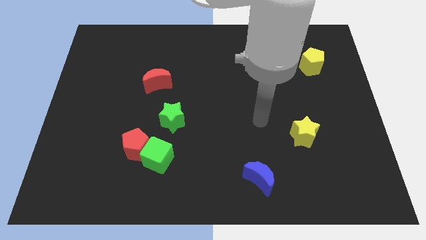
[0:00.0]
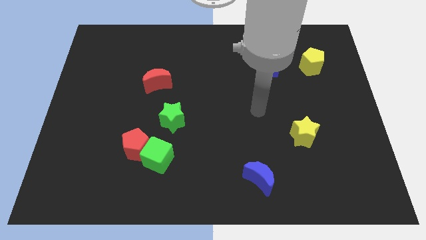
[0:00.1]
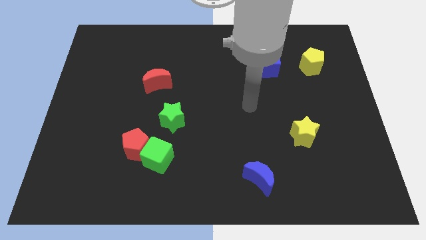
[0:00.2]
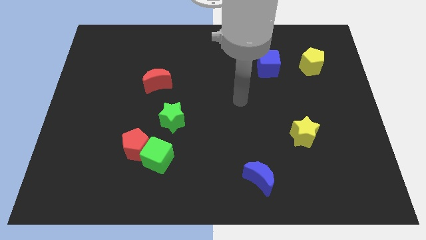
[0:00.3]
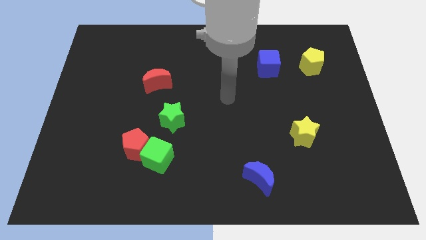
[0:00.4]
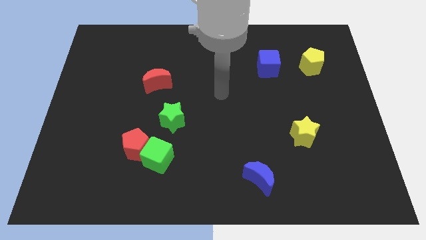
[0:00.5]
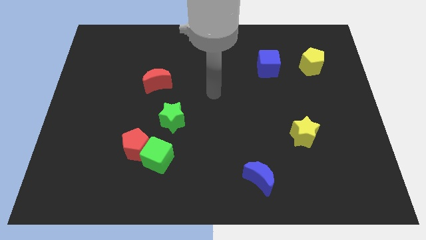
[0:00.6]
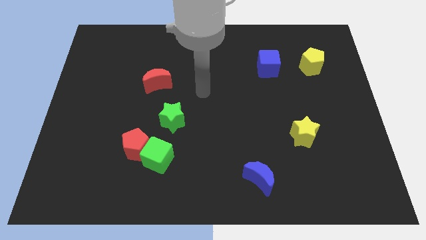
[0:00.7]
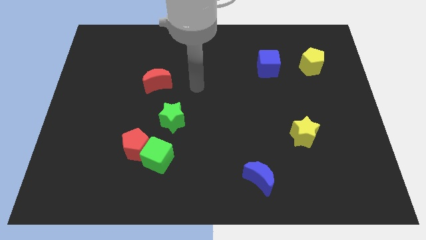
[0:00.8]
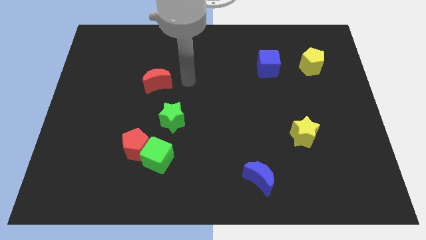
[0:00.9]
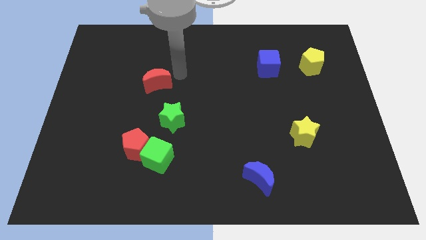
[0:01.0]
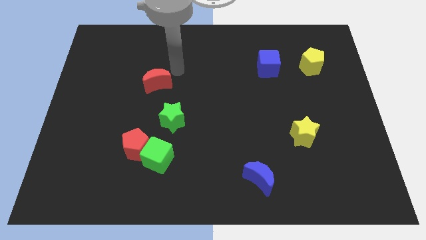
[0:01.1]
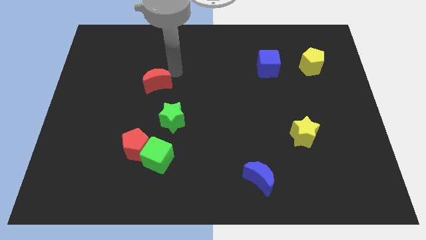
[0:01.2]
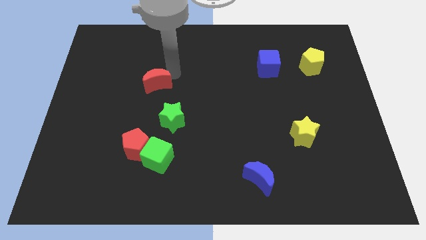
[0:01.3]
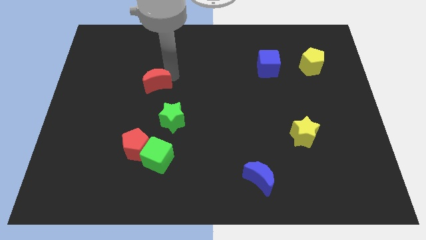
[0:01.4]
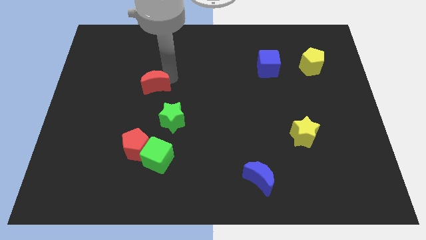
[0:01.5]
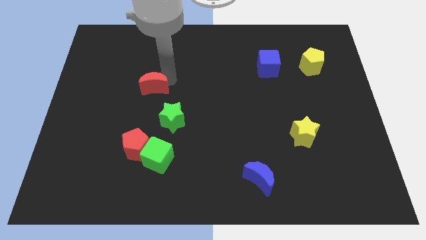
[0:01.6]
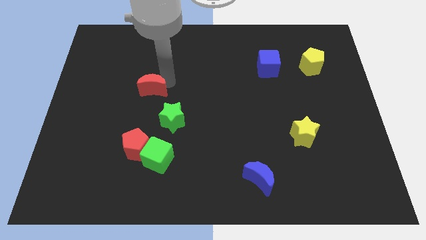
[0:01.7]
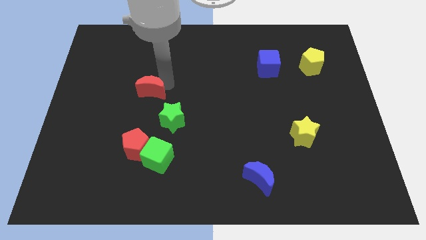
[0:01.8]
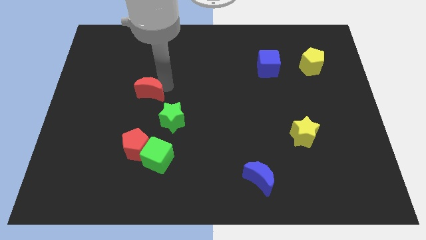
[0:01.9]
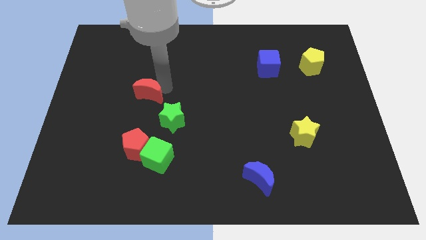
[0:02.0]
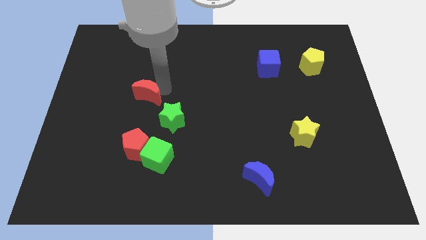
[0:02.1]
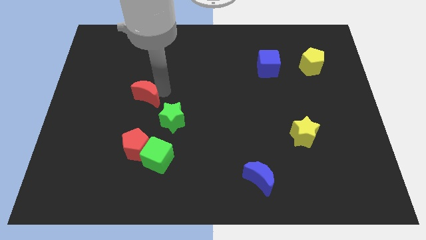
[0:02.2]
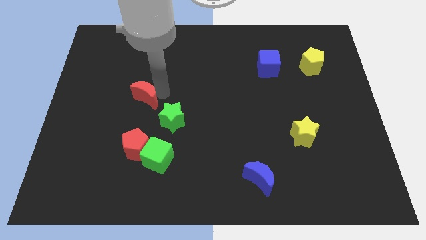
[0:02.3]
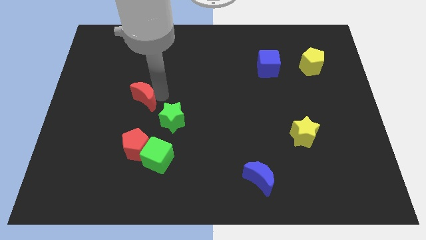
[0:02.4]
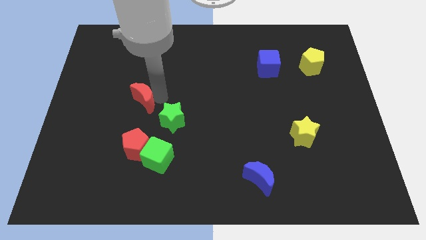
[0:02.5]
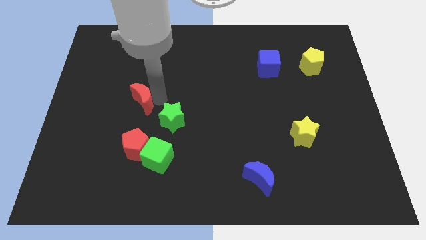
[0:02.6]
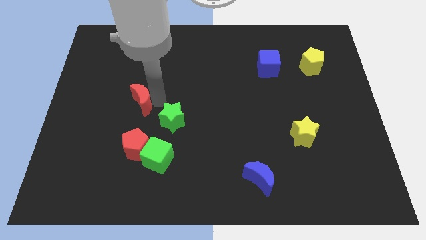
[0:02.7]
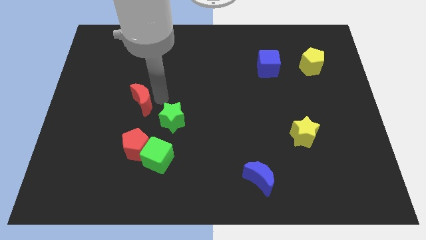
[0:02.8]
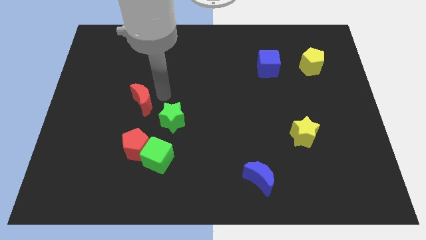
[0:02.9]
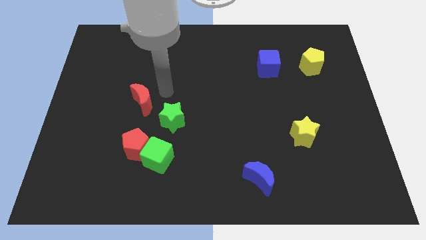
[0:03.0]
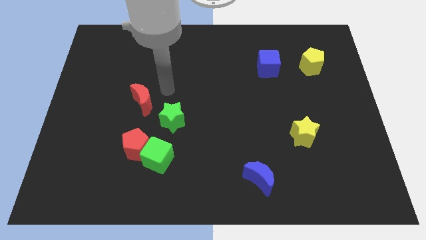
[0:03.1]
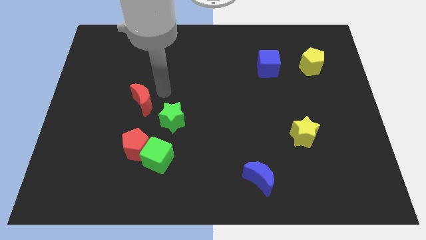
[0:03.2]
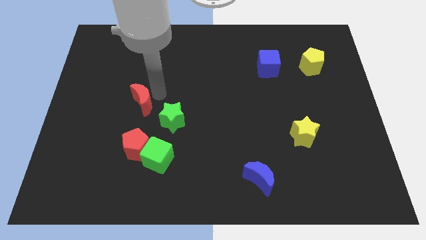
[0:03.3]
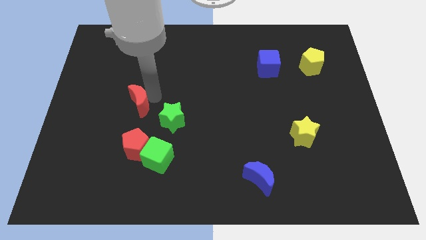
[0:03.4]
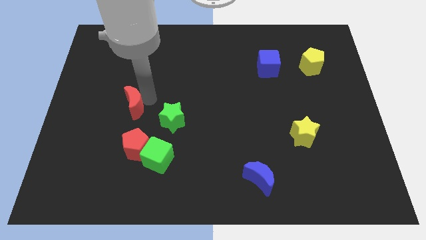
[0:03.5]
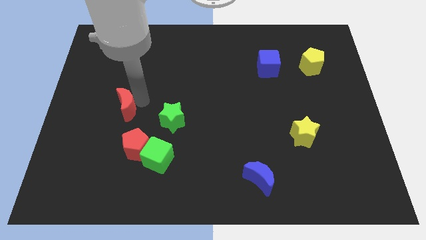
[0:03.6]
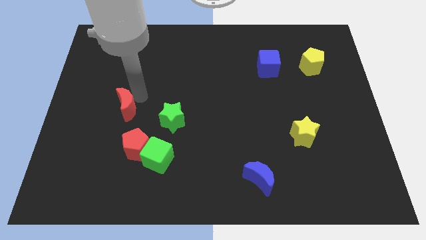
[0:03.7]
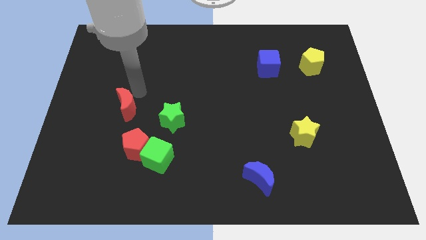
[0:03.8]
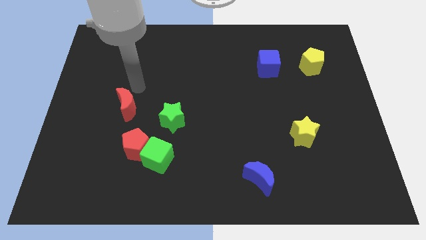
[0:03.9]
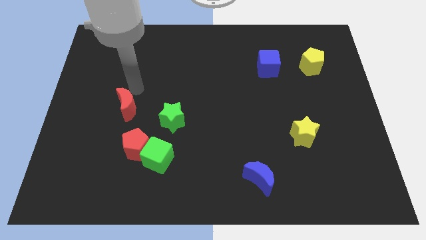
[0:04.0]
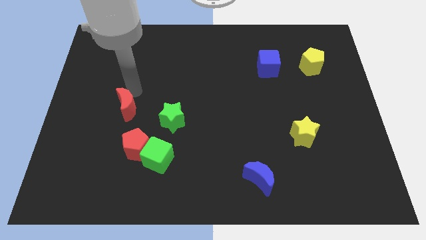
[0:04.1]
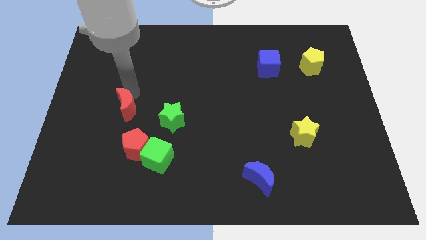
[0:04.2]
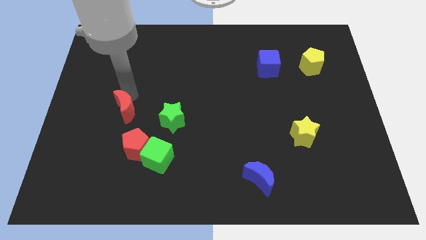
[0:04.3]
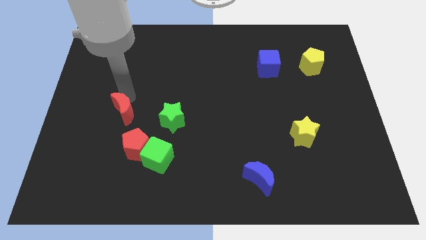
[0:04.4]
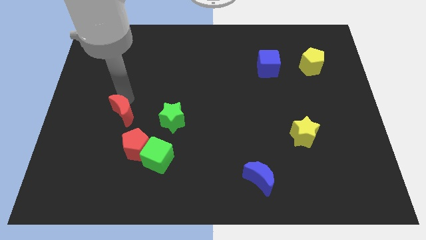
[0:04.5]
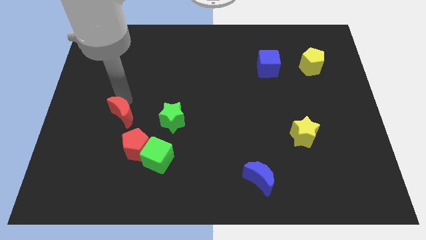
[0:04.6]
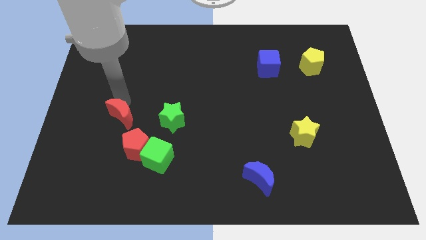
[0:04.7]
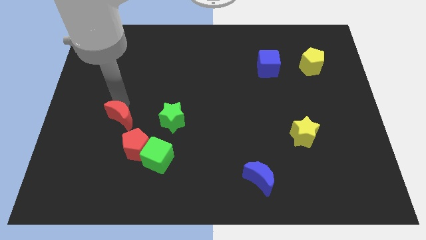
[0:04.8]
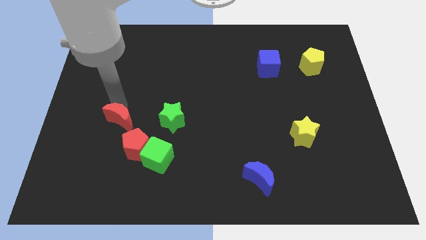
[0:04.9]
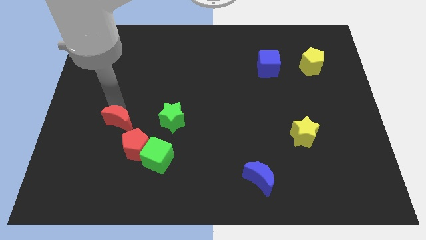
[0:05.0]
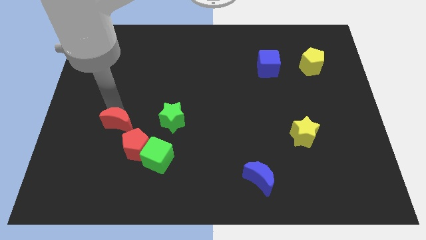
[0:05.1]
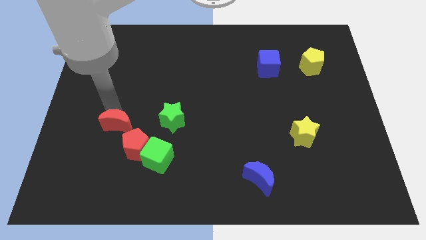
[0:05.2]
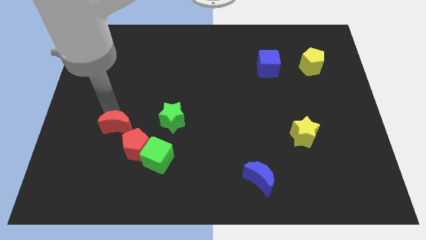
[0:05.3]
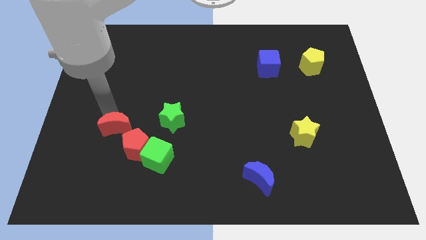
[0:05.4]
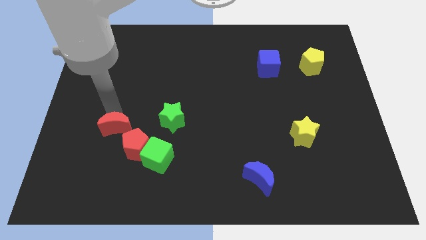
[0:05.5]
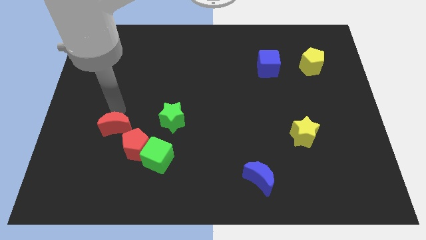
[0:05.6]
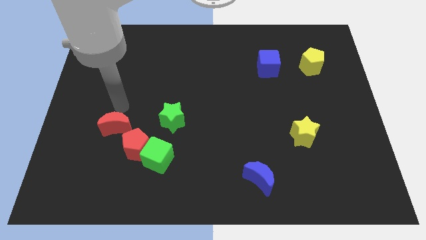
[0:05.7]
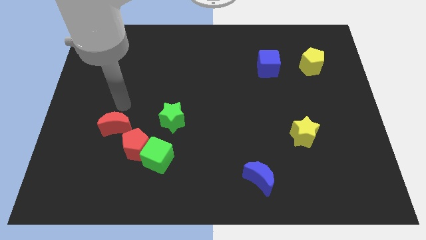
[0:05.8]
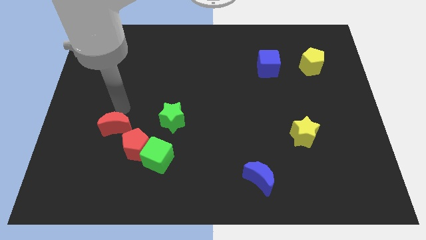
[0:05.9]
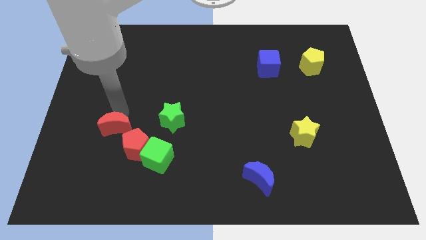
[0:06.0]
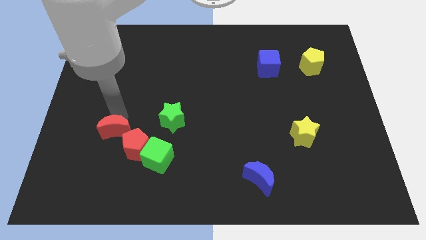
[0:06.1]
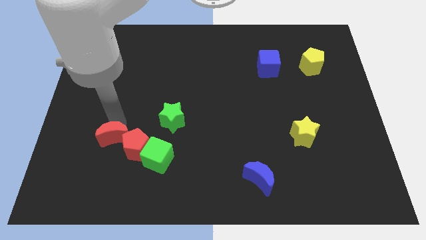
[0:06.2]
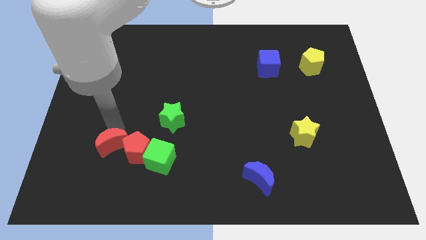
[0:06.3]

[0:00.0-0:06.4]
put the red moon to the left side of the green cube

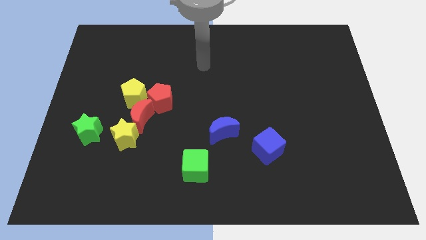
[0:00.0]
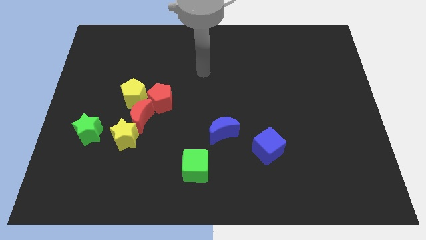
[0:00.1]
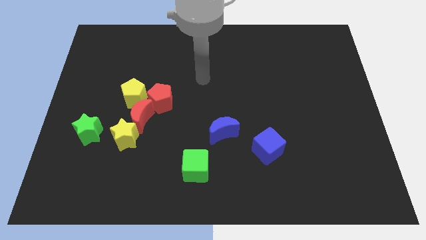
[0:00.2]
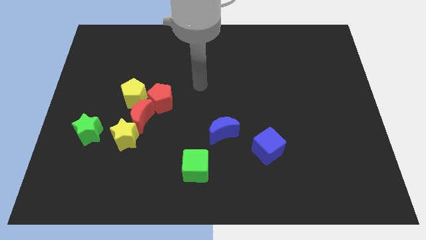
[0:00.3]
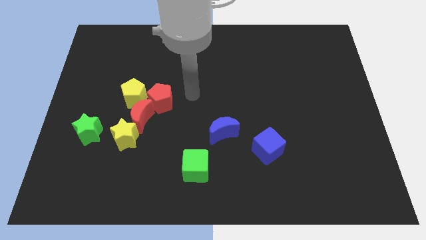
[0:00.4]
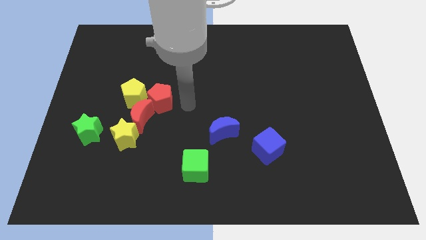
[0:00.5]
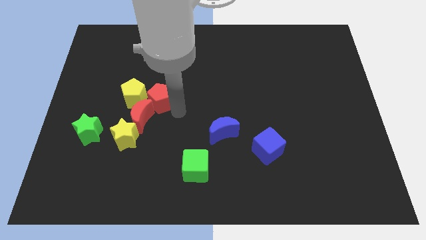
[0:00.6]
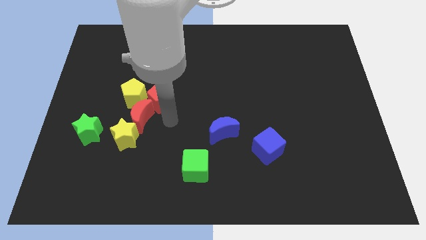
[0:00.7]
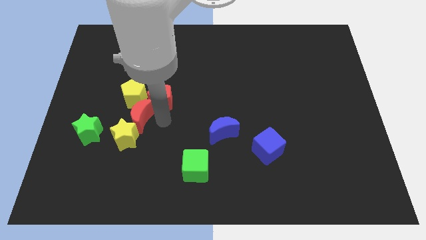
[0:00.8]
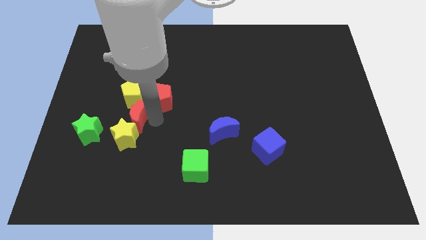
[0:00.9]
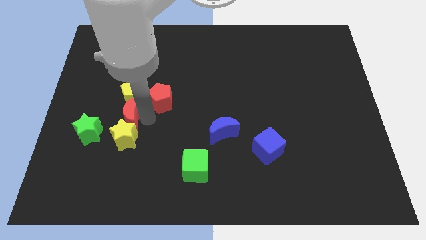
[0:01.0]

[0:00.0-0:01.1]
put the red moon to the bottom left of the yellow pentagon

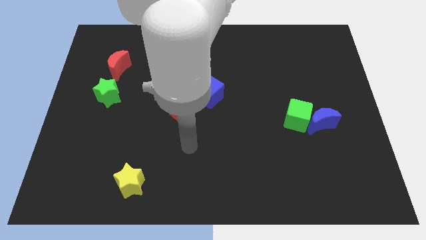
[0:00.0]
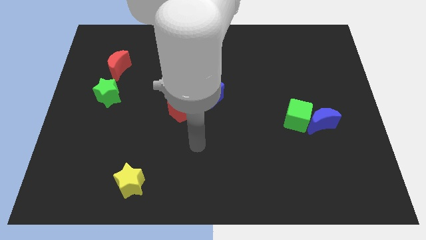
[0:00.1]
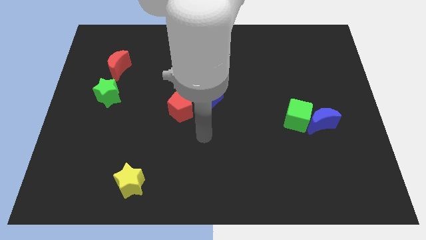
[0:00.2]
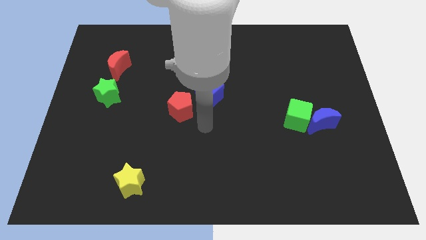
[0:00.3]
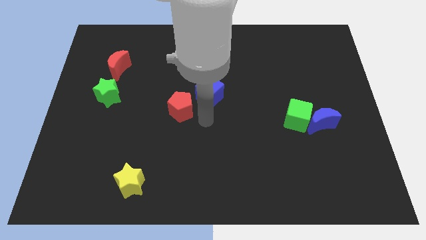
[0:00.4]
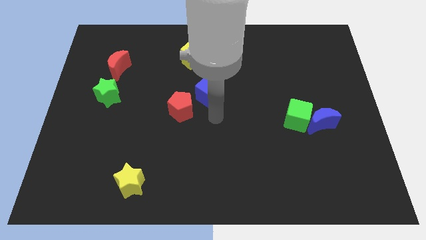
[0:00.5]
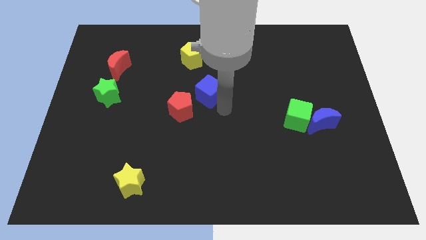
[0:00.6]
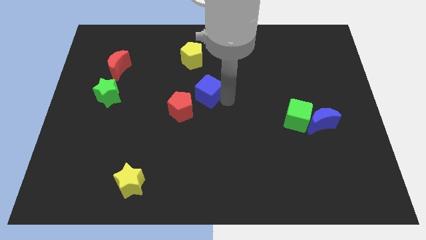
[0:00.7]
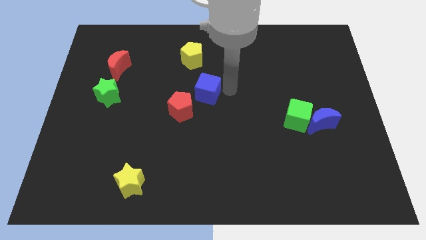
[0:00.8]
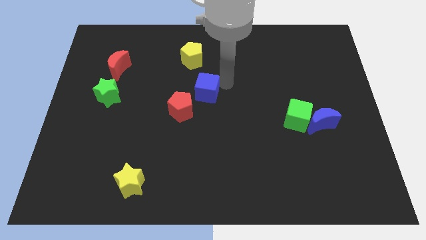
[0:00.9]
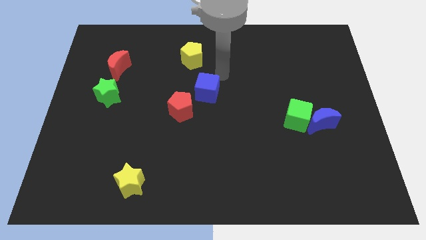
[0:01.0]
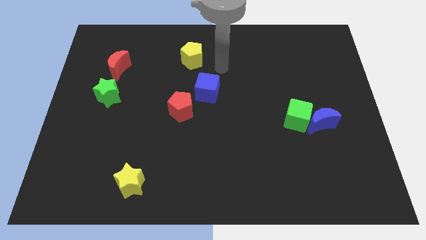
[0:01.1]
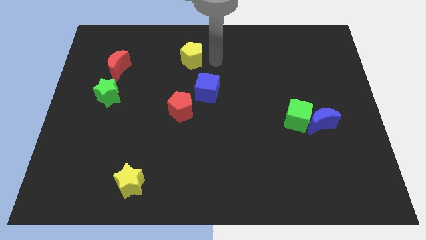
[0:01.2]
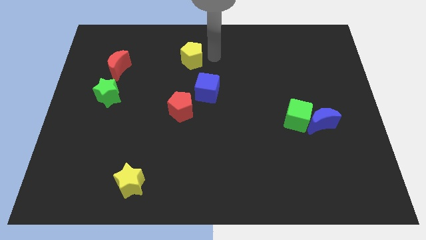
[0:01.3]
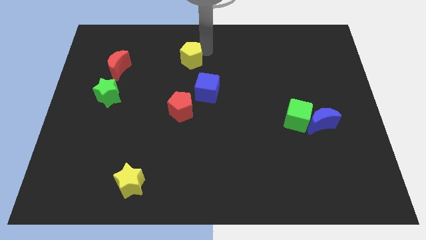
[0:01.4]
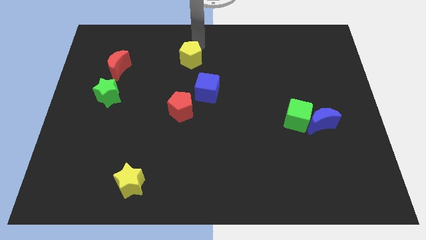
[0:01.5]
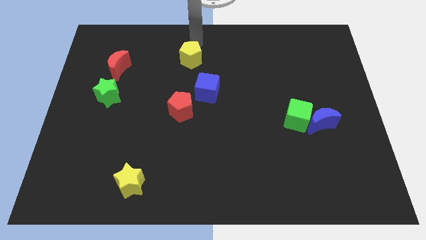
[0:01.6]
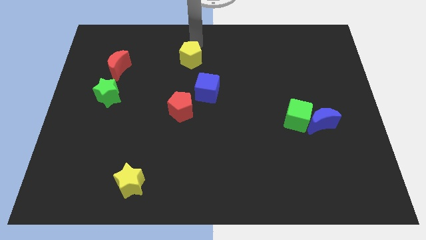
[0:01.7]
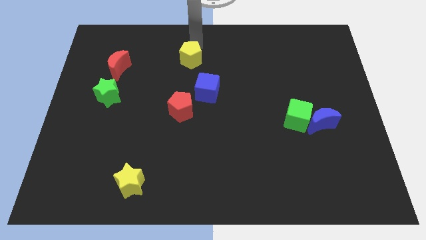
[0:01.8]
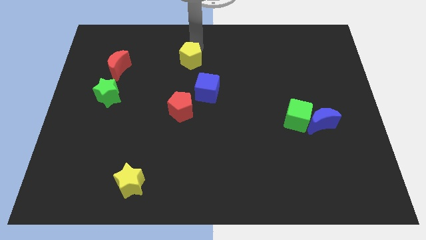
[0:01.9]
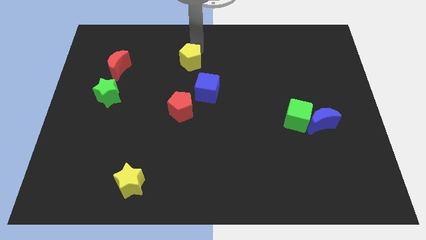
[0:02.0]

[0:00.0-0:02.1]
move the yellow pentagon to the top left side of the blue cube
